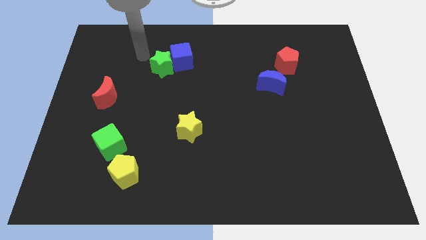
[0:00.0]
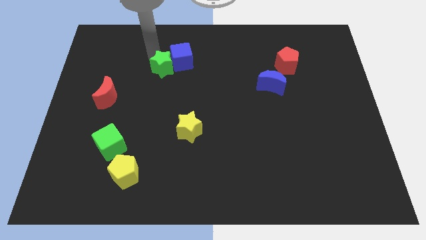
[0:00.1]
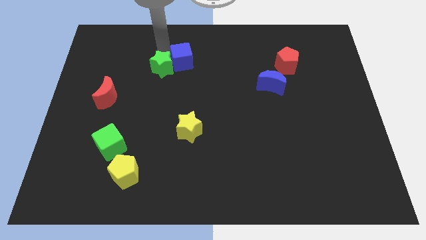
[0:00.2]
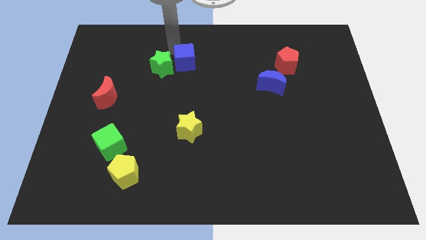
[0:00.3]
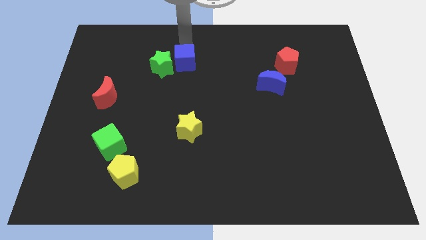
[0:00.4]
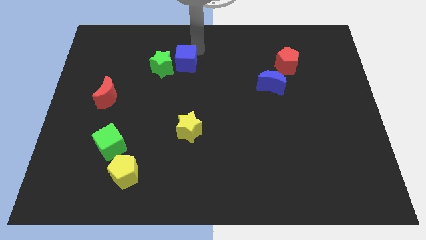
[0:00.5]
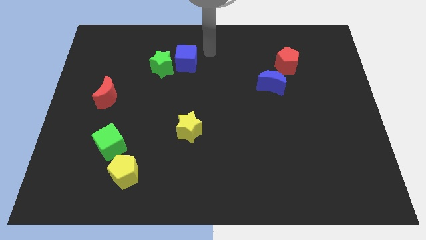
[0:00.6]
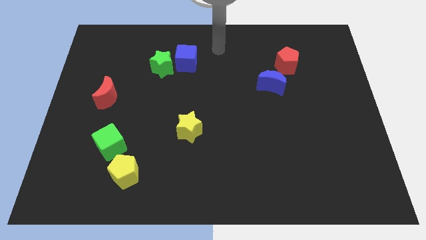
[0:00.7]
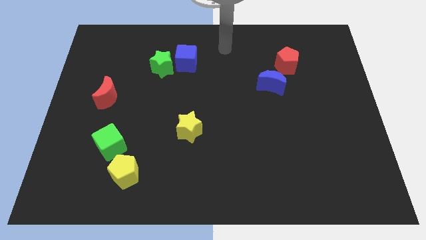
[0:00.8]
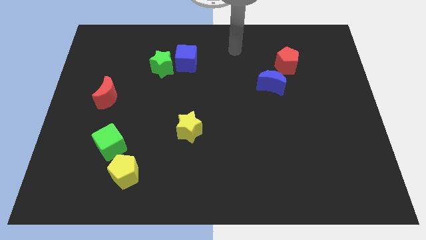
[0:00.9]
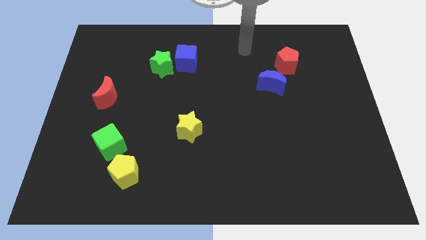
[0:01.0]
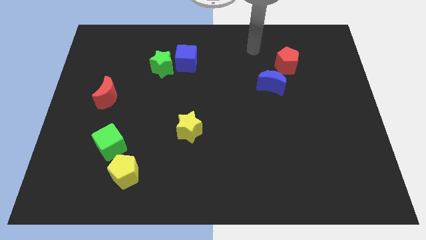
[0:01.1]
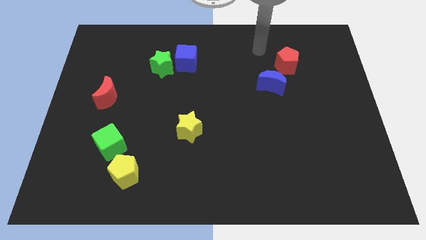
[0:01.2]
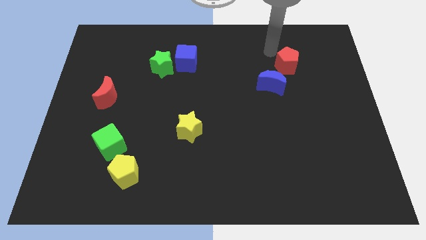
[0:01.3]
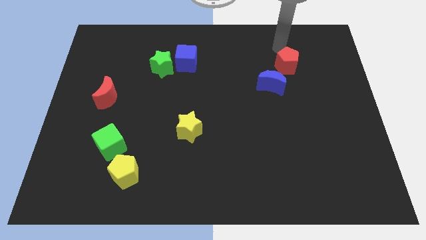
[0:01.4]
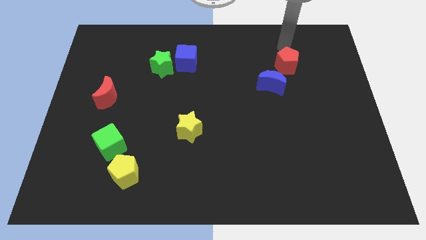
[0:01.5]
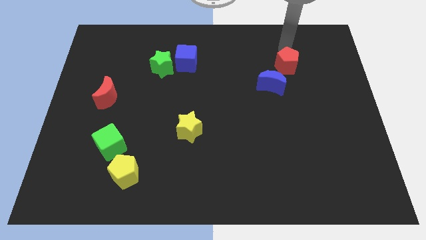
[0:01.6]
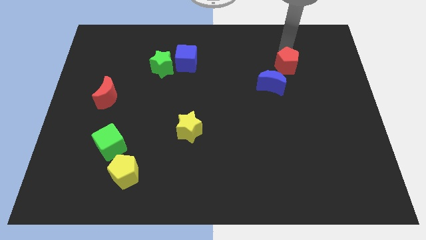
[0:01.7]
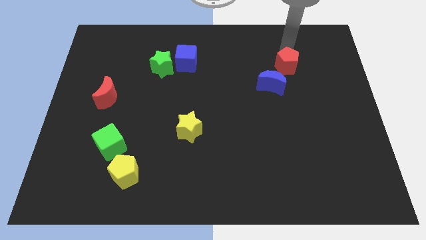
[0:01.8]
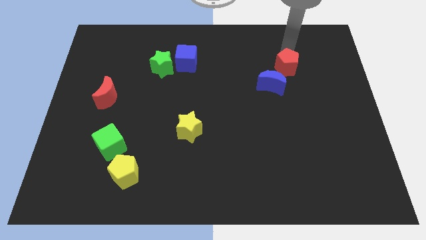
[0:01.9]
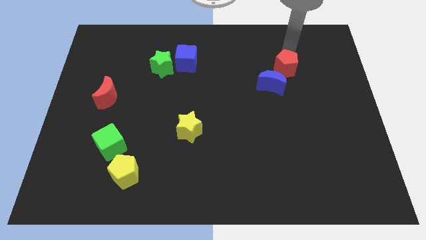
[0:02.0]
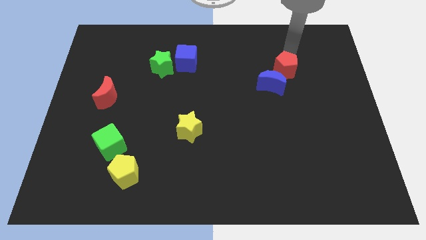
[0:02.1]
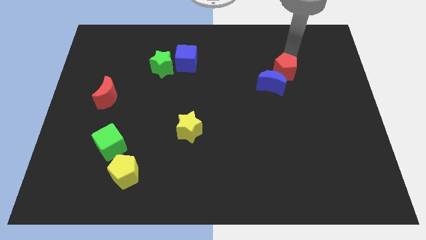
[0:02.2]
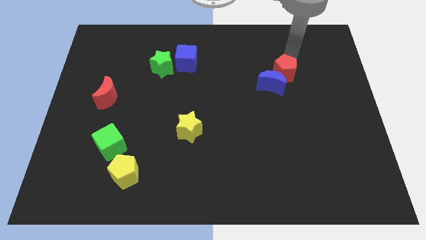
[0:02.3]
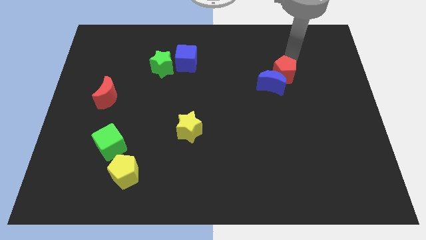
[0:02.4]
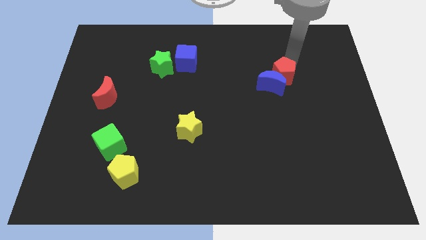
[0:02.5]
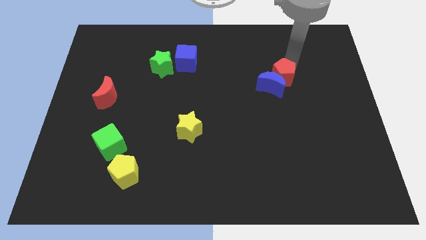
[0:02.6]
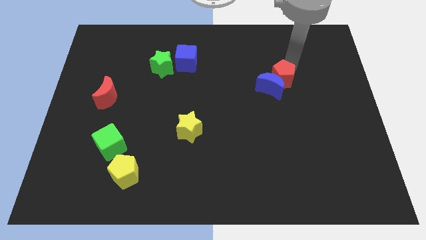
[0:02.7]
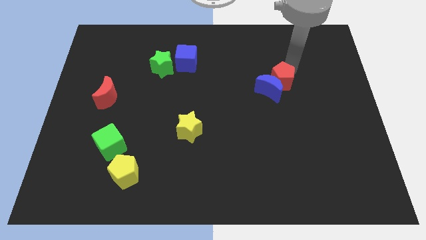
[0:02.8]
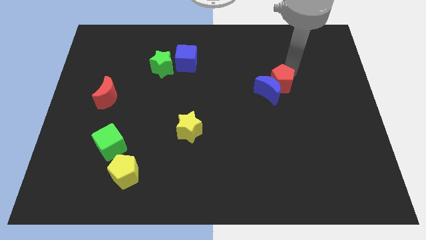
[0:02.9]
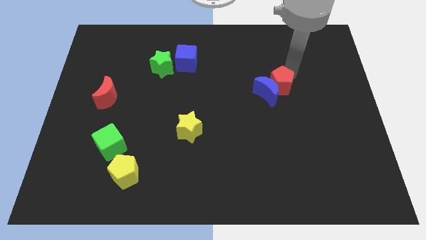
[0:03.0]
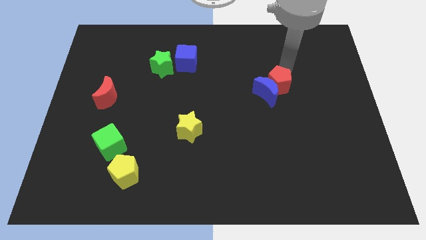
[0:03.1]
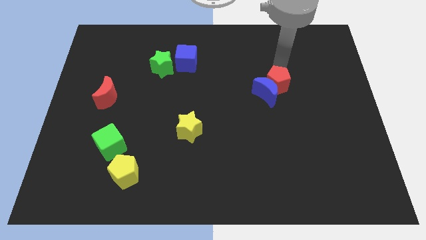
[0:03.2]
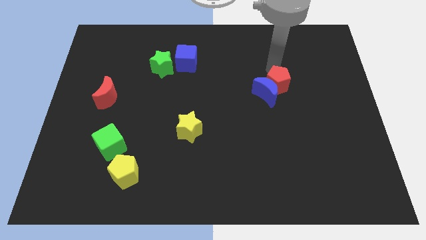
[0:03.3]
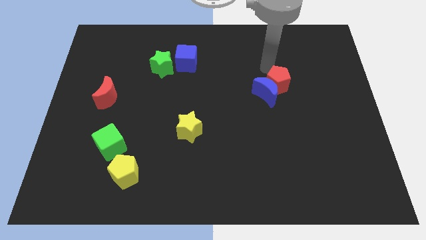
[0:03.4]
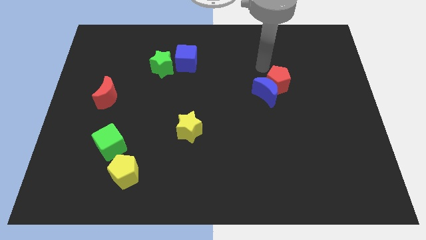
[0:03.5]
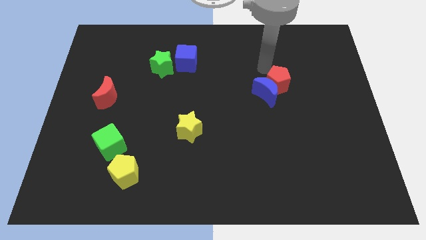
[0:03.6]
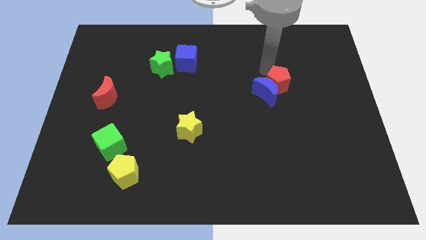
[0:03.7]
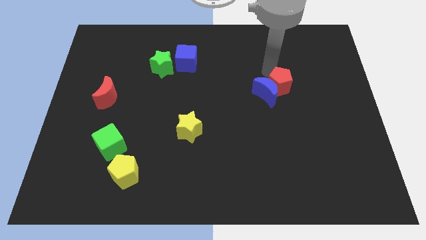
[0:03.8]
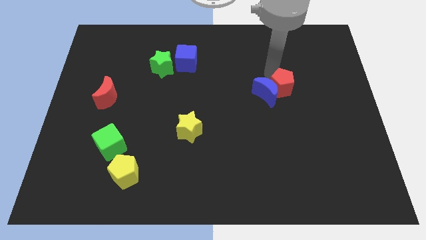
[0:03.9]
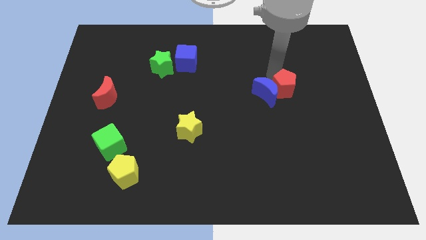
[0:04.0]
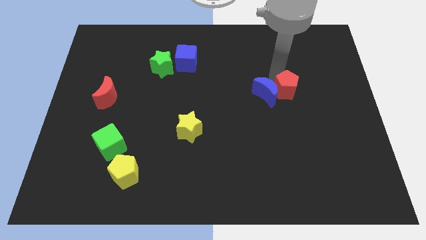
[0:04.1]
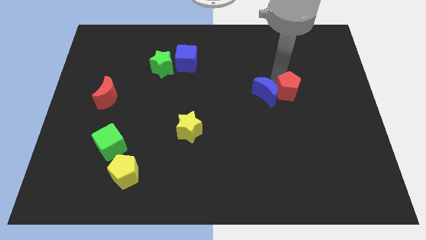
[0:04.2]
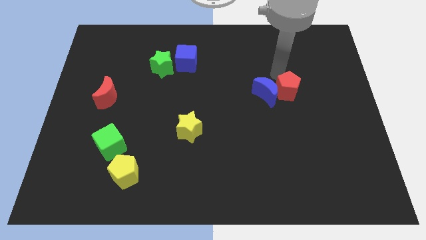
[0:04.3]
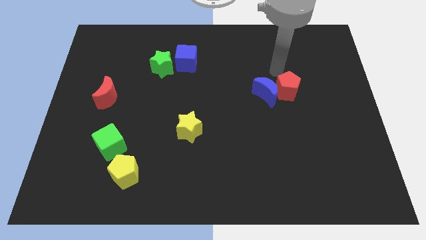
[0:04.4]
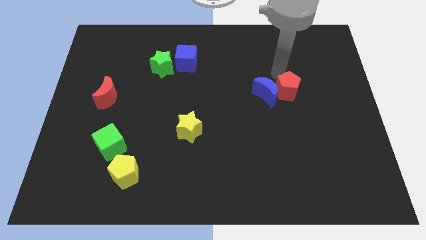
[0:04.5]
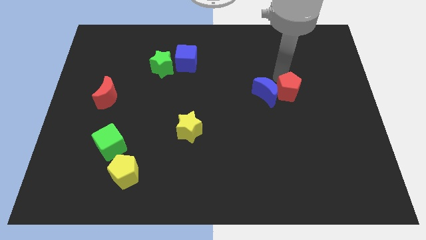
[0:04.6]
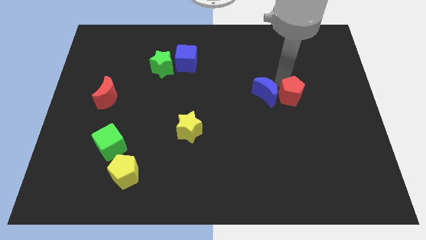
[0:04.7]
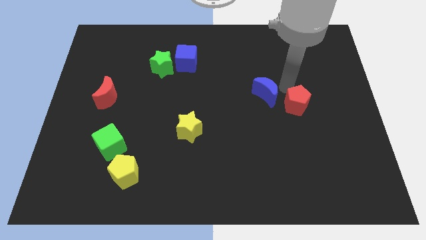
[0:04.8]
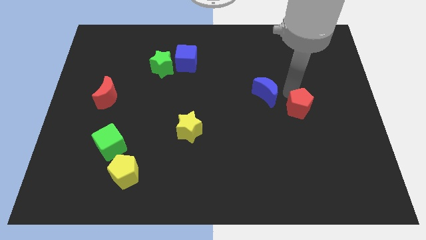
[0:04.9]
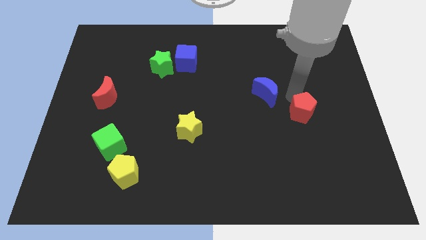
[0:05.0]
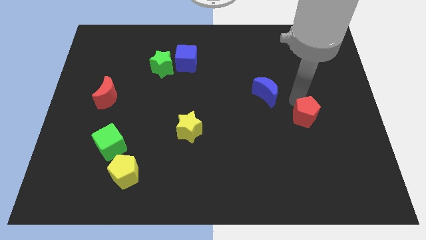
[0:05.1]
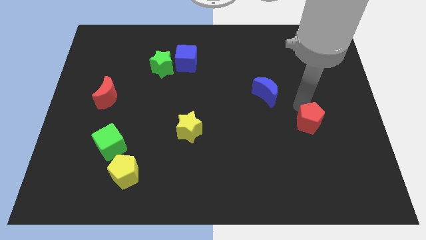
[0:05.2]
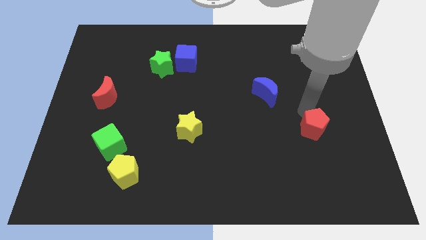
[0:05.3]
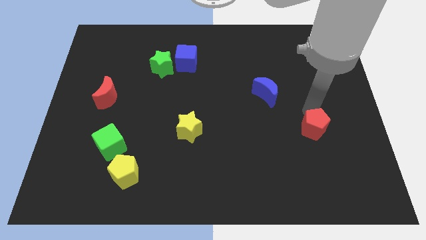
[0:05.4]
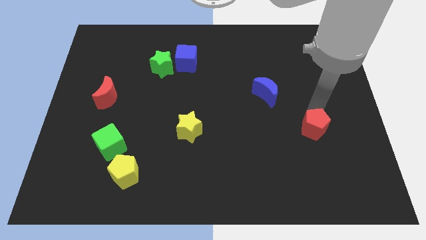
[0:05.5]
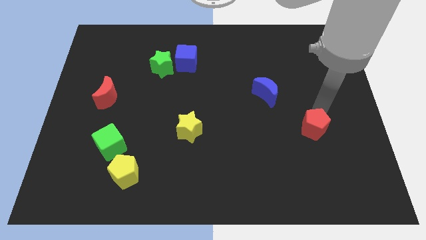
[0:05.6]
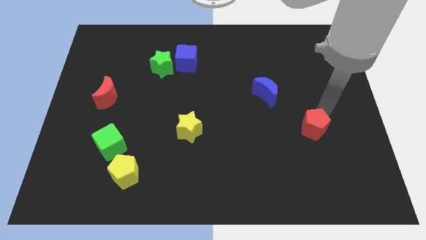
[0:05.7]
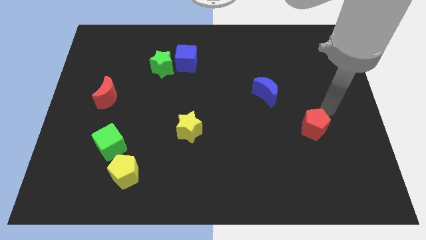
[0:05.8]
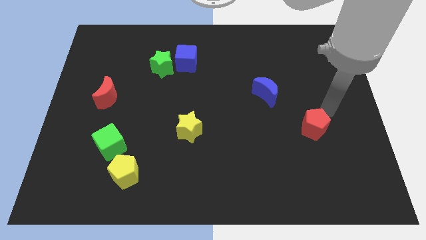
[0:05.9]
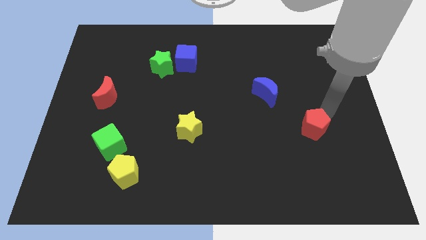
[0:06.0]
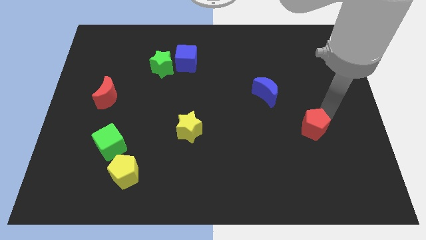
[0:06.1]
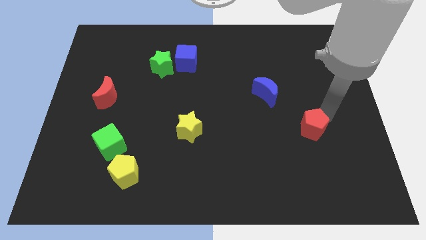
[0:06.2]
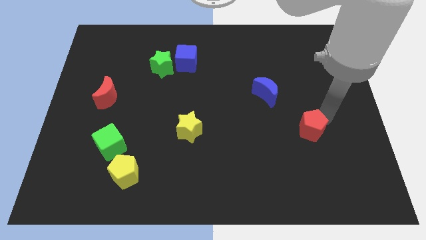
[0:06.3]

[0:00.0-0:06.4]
push the red pentagon downwards

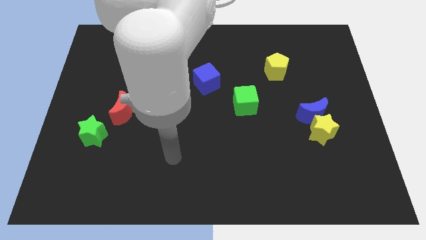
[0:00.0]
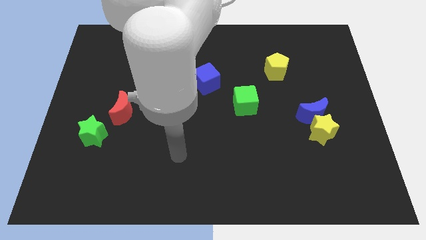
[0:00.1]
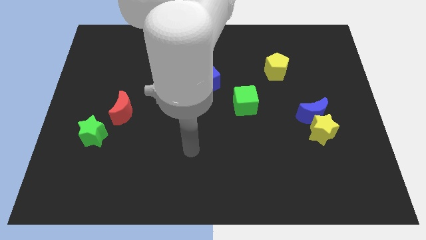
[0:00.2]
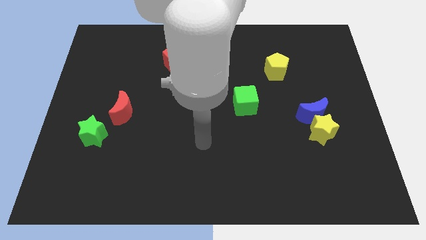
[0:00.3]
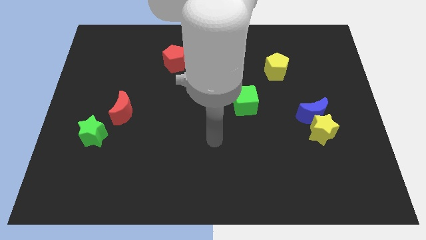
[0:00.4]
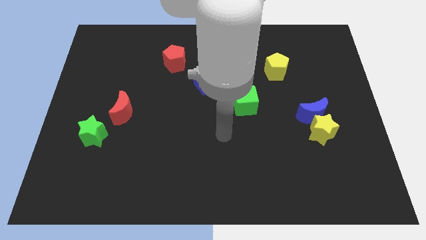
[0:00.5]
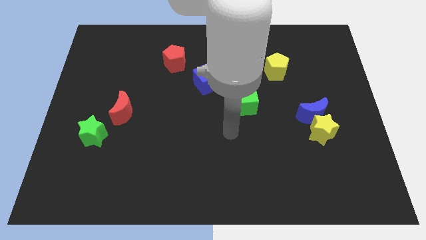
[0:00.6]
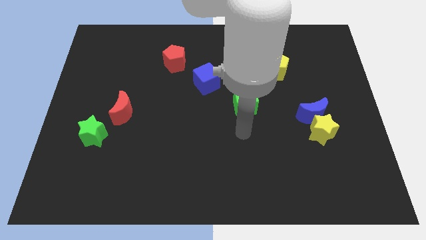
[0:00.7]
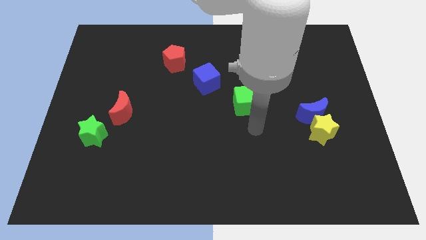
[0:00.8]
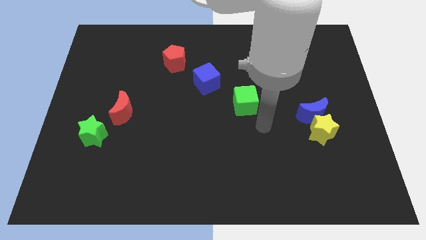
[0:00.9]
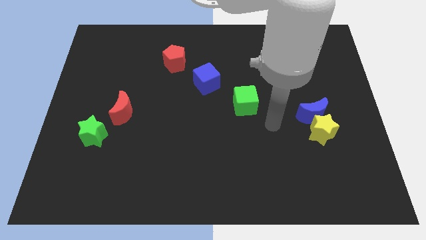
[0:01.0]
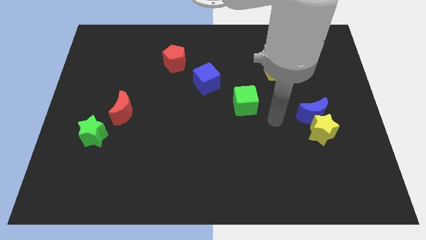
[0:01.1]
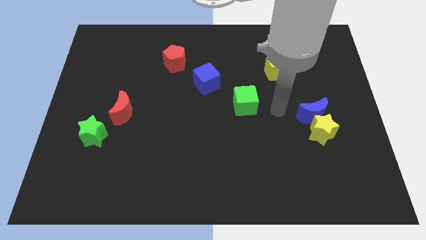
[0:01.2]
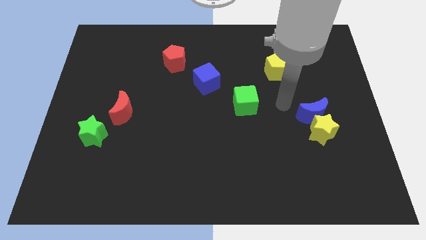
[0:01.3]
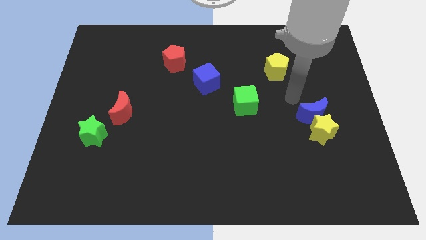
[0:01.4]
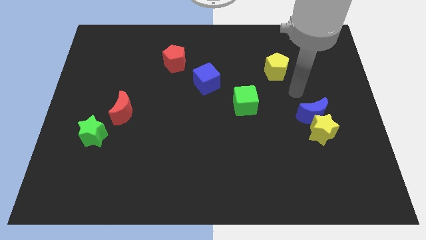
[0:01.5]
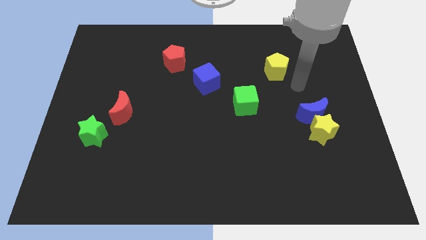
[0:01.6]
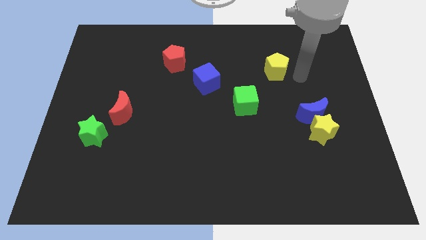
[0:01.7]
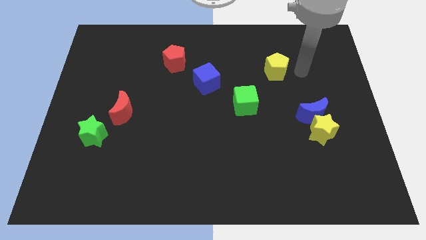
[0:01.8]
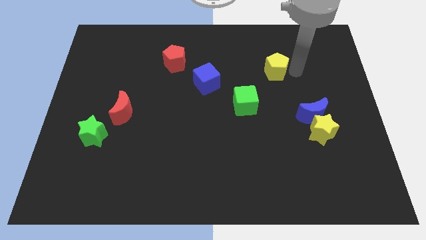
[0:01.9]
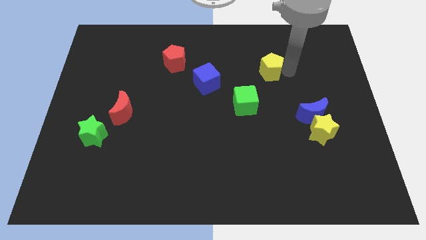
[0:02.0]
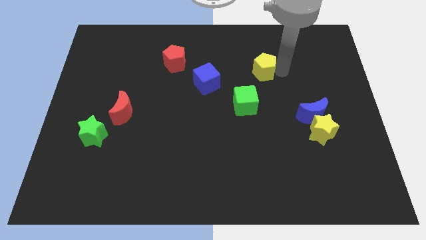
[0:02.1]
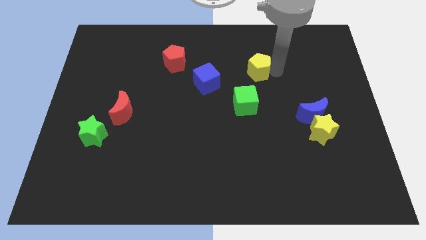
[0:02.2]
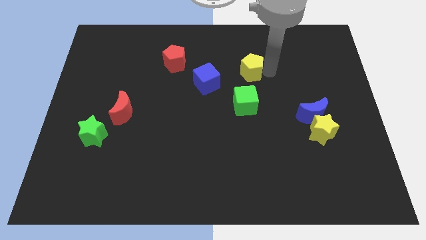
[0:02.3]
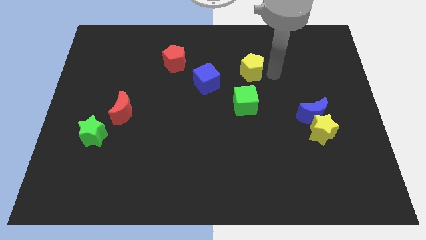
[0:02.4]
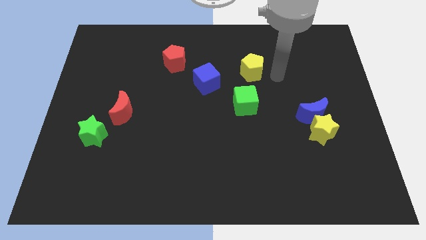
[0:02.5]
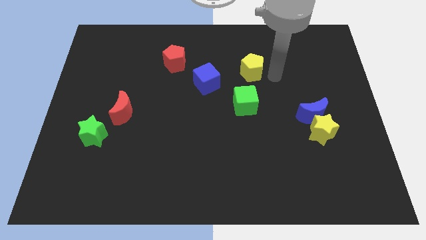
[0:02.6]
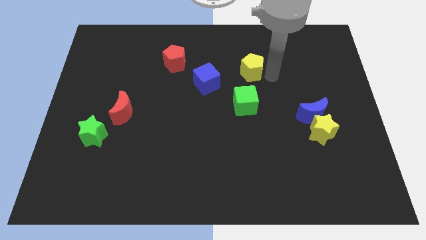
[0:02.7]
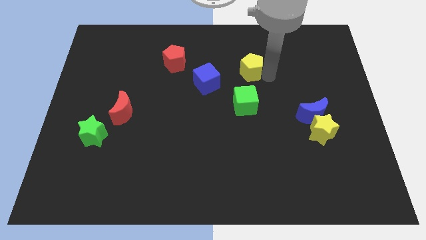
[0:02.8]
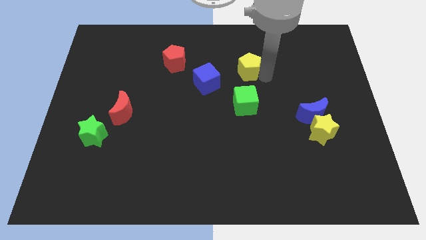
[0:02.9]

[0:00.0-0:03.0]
slightly push the yellow pentagon to the left
